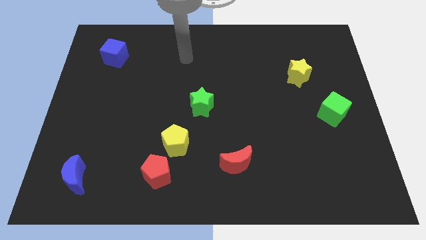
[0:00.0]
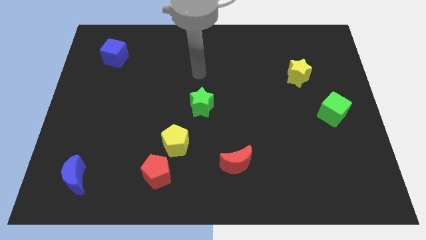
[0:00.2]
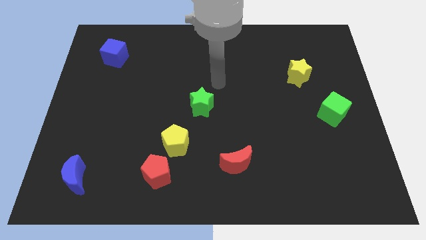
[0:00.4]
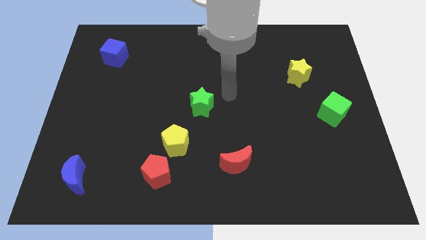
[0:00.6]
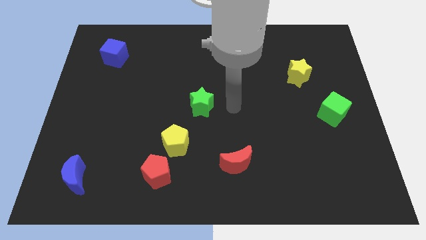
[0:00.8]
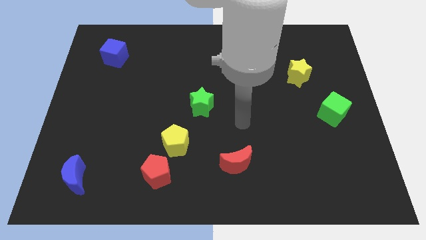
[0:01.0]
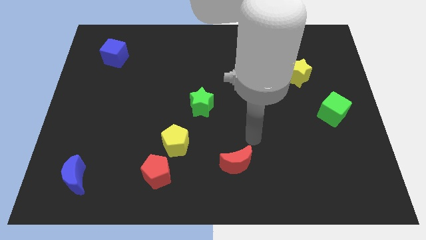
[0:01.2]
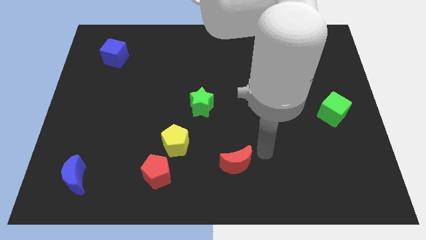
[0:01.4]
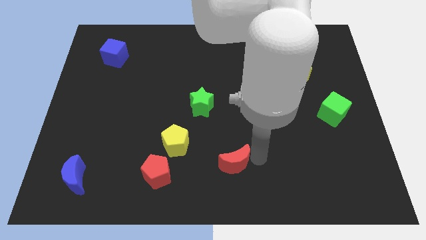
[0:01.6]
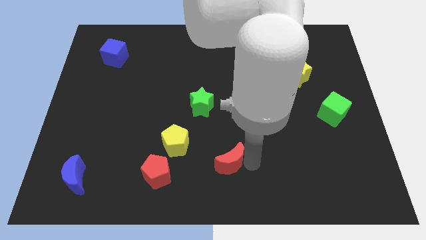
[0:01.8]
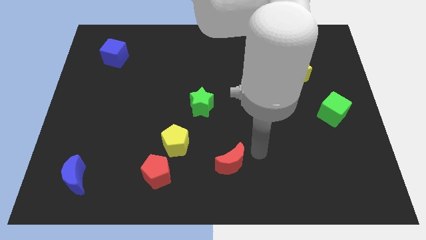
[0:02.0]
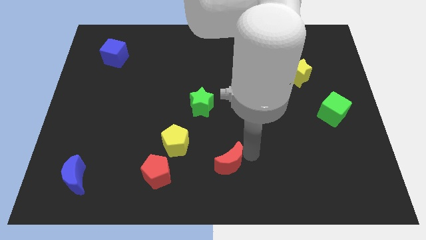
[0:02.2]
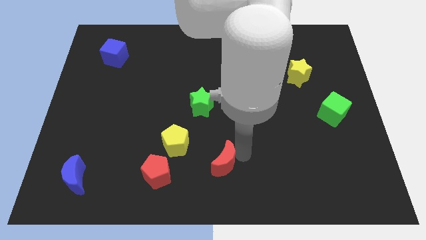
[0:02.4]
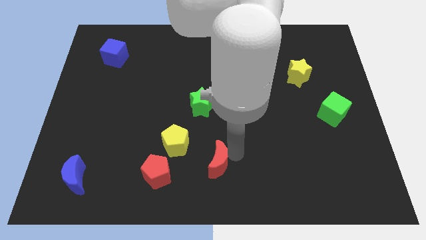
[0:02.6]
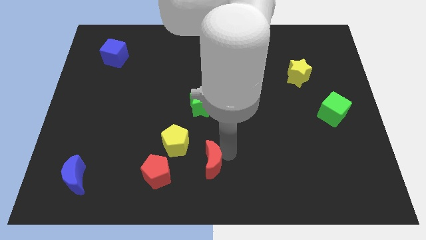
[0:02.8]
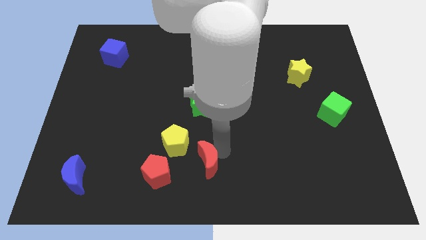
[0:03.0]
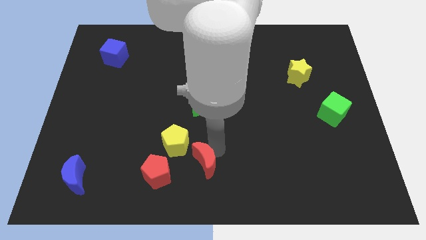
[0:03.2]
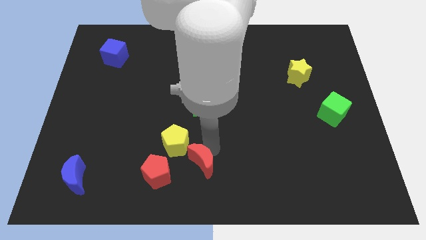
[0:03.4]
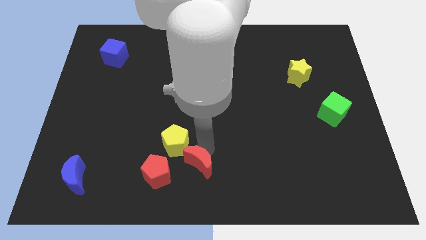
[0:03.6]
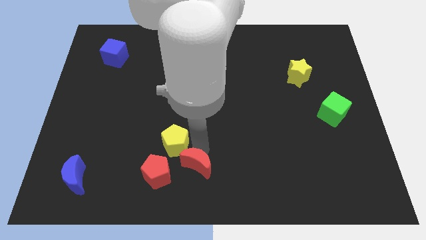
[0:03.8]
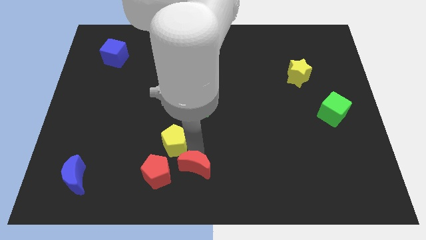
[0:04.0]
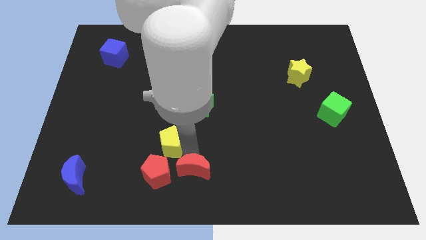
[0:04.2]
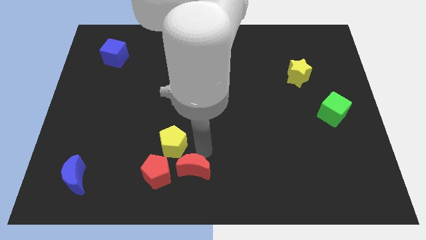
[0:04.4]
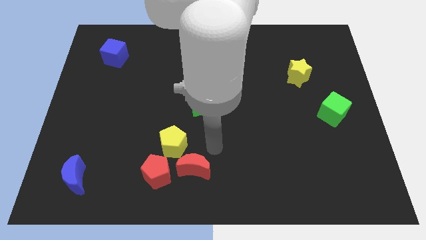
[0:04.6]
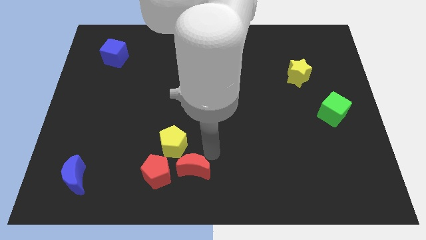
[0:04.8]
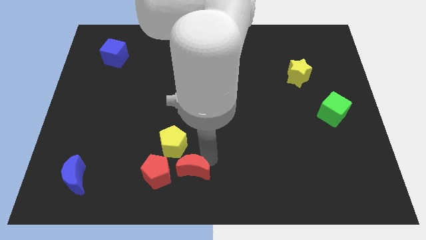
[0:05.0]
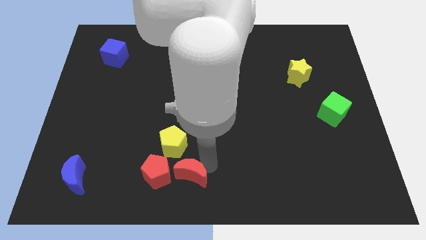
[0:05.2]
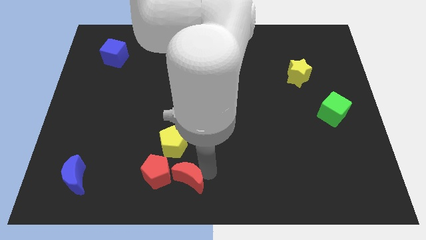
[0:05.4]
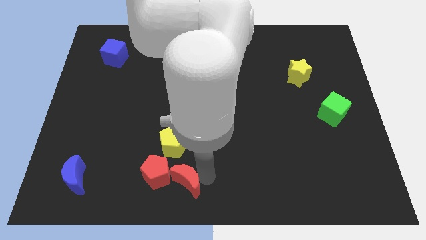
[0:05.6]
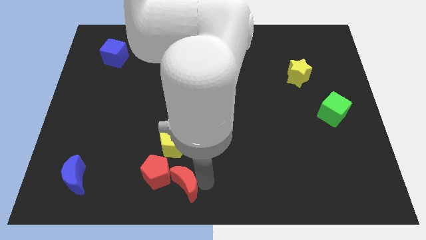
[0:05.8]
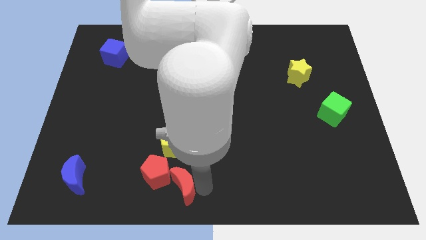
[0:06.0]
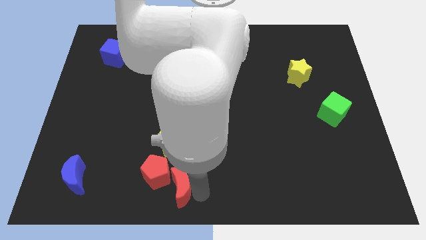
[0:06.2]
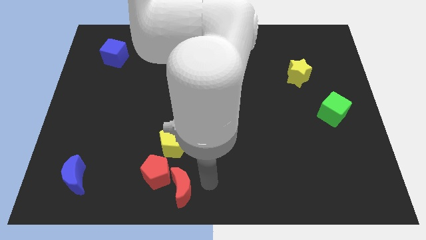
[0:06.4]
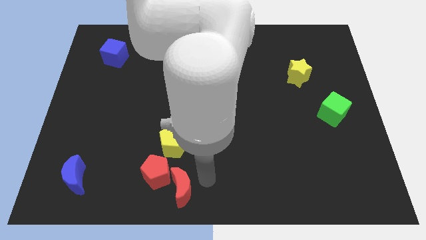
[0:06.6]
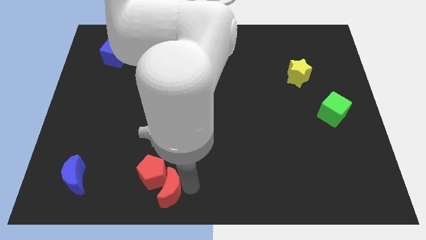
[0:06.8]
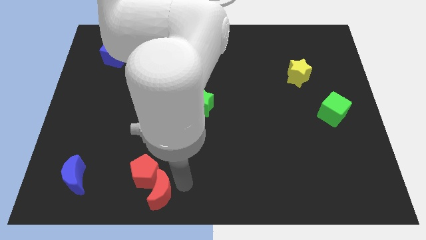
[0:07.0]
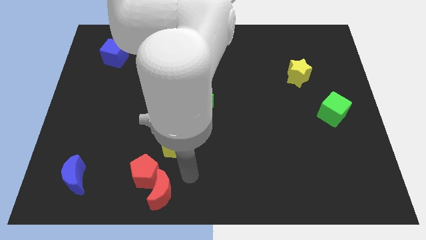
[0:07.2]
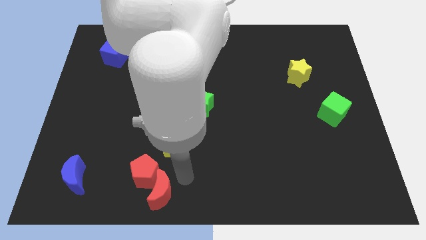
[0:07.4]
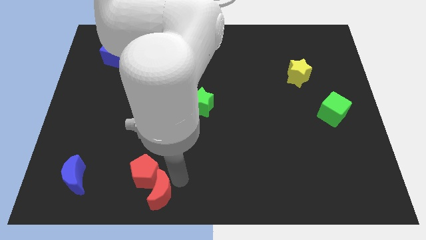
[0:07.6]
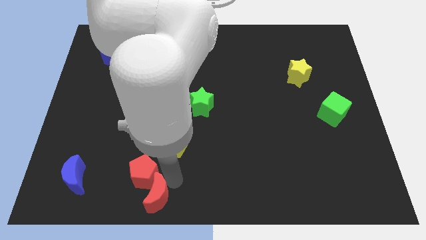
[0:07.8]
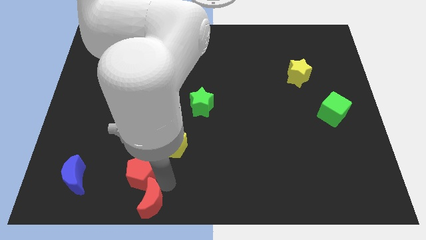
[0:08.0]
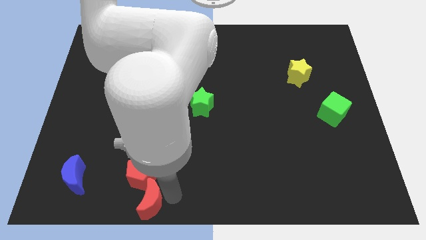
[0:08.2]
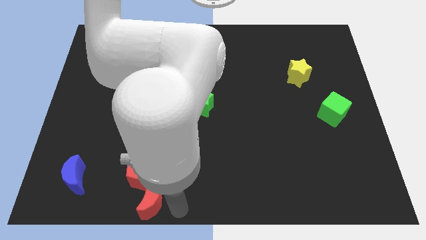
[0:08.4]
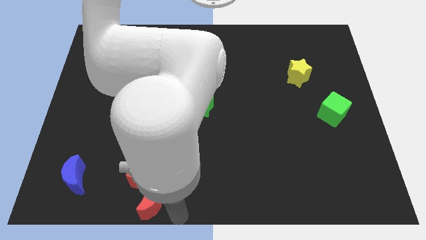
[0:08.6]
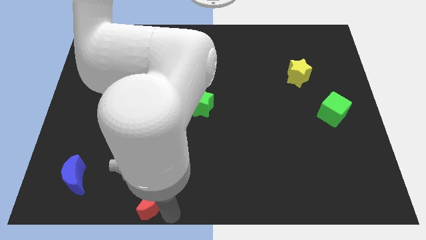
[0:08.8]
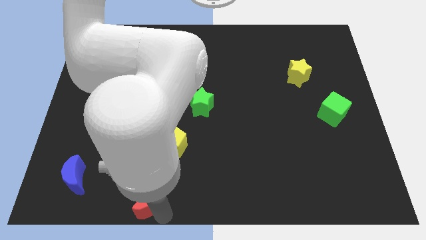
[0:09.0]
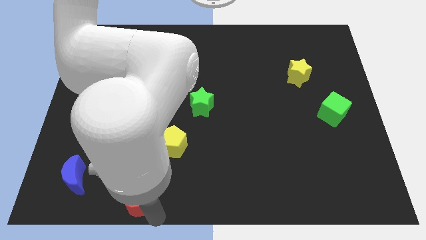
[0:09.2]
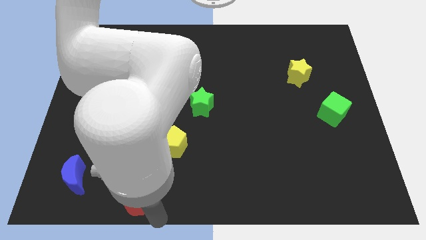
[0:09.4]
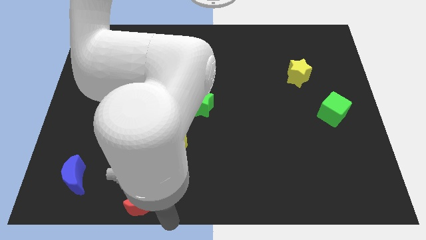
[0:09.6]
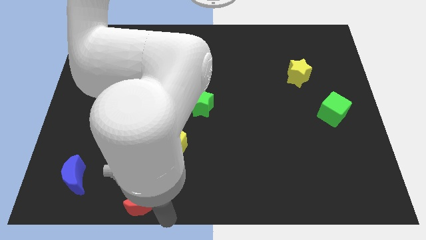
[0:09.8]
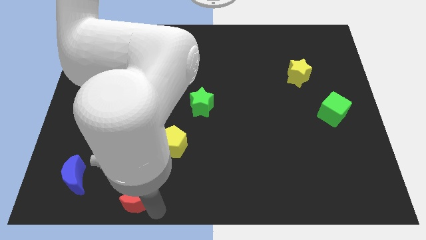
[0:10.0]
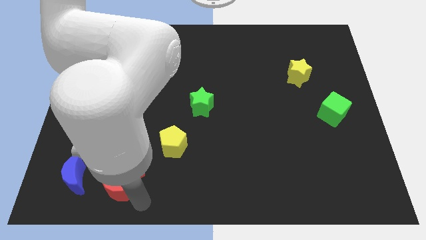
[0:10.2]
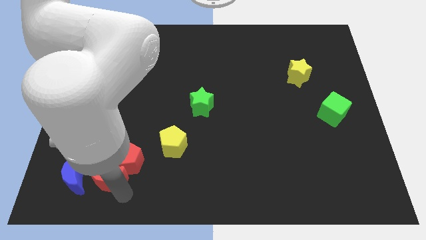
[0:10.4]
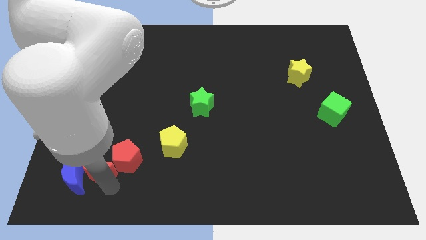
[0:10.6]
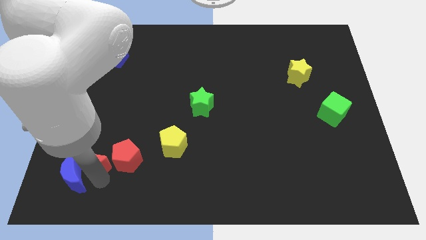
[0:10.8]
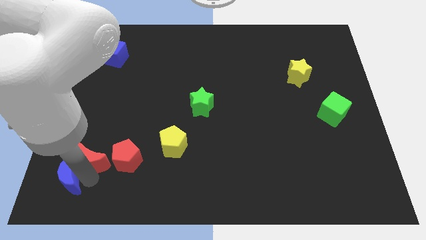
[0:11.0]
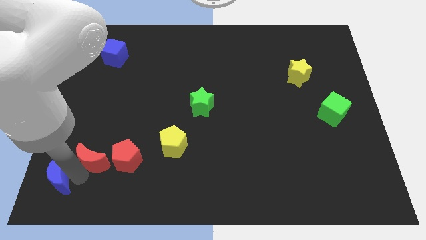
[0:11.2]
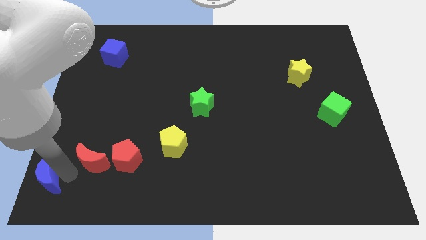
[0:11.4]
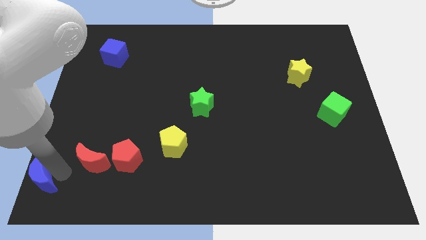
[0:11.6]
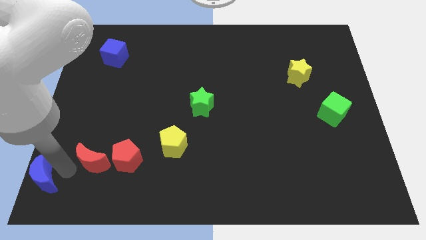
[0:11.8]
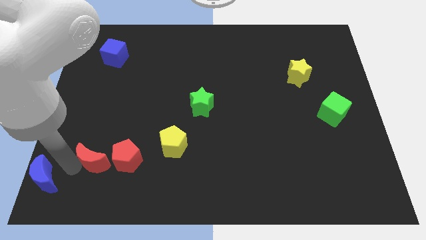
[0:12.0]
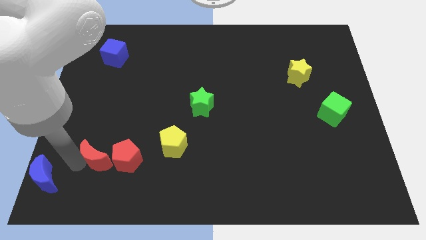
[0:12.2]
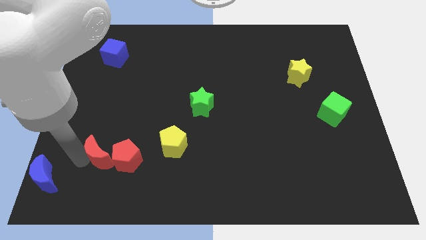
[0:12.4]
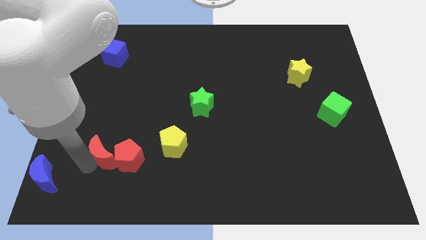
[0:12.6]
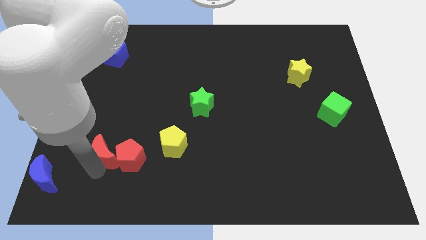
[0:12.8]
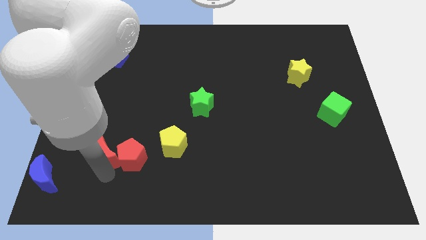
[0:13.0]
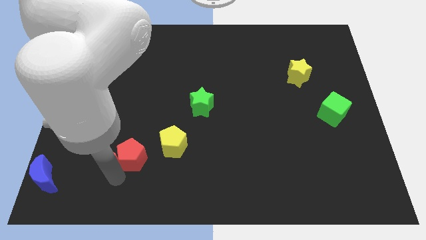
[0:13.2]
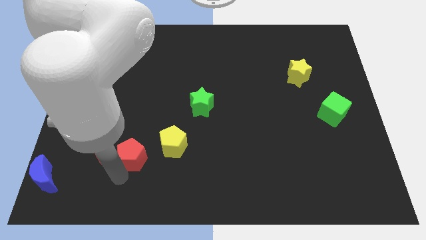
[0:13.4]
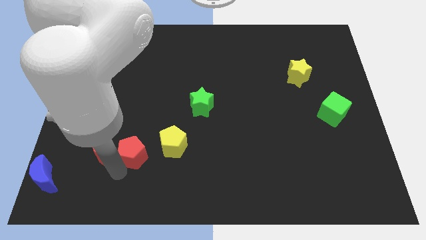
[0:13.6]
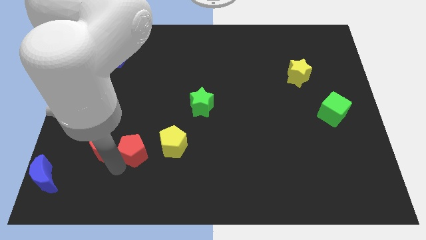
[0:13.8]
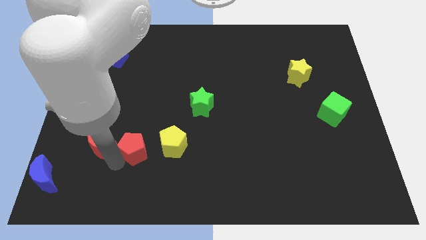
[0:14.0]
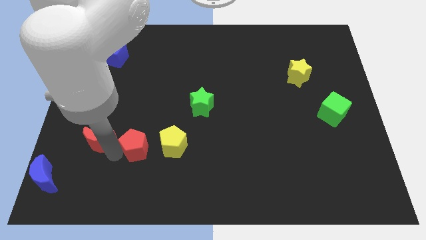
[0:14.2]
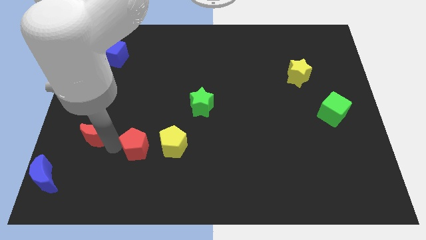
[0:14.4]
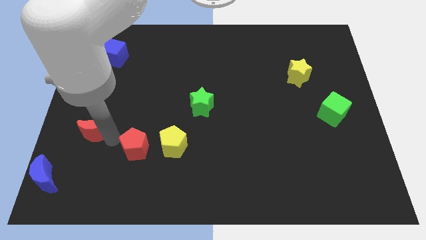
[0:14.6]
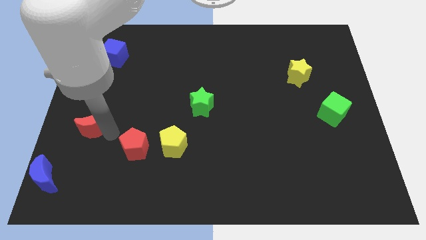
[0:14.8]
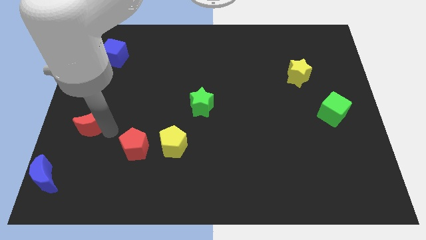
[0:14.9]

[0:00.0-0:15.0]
put the red moon to the left side of the board
